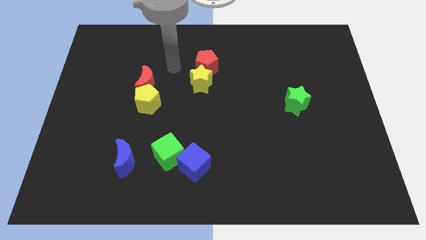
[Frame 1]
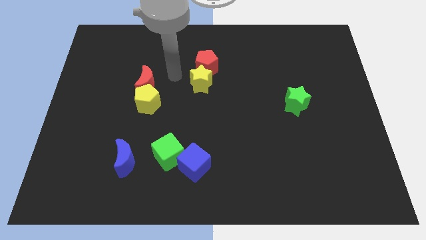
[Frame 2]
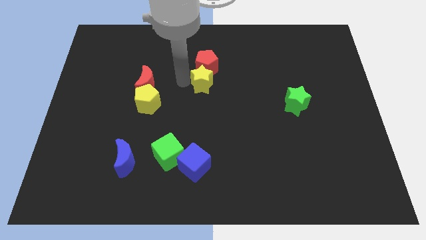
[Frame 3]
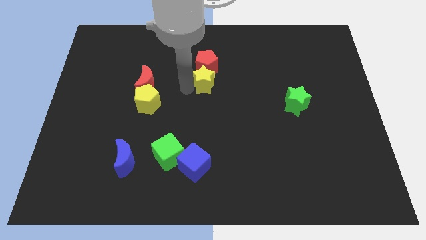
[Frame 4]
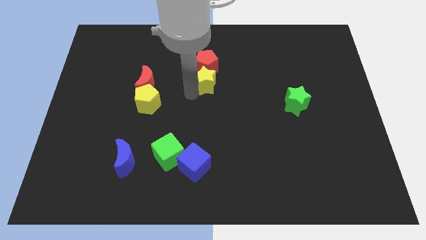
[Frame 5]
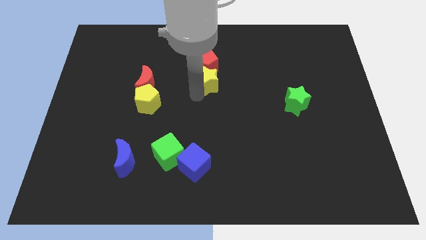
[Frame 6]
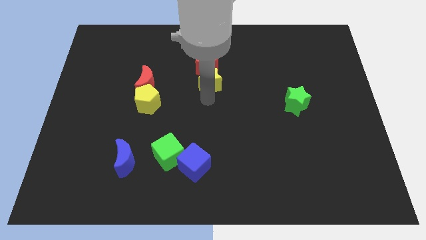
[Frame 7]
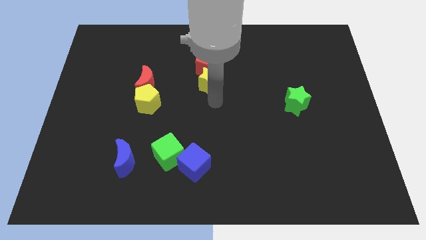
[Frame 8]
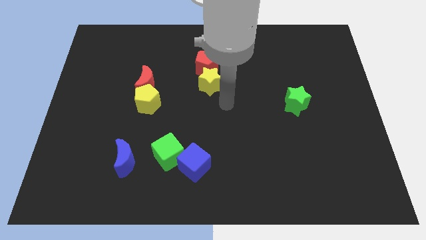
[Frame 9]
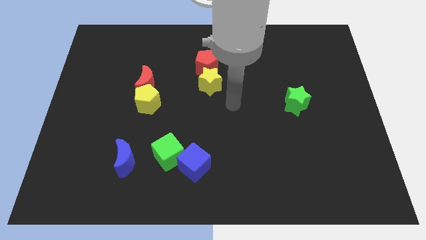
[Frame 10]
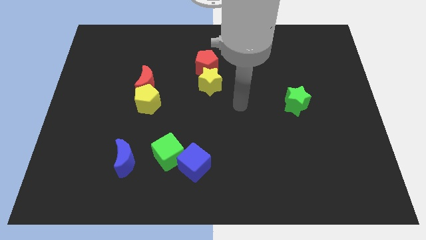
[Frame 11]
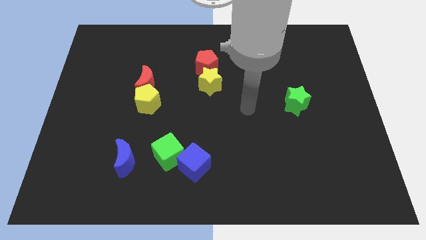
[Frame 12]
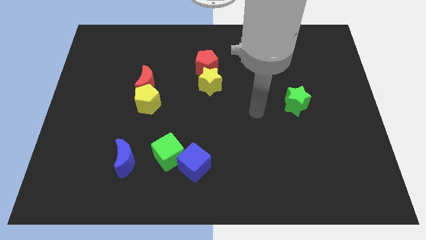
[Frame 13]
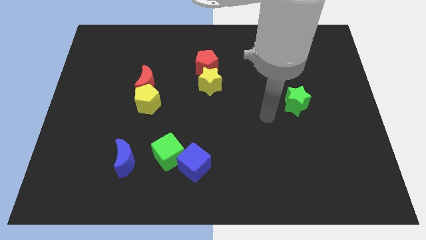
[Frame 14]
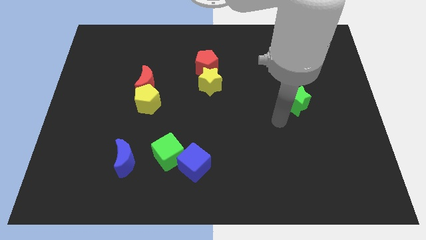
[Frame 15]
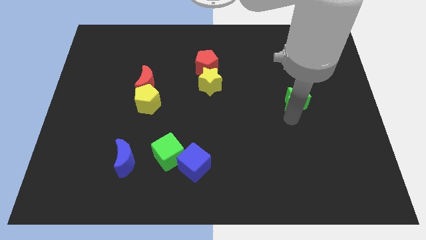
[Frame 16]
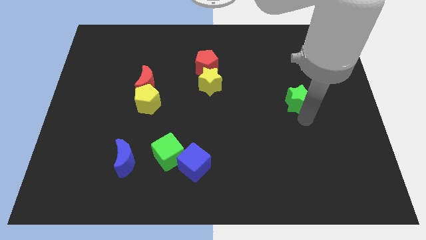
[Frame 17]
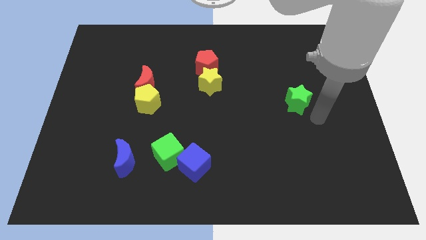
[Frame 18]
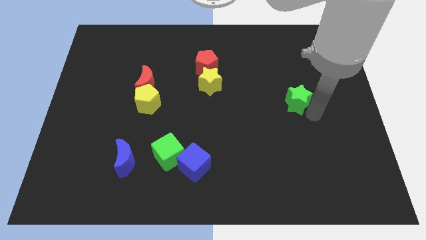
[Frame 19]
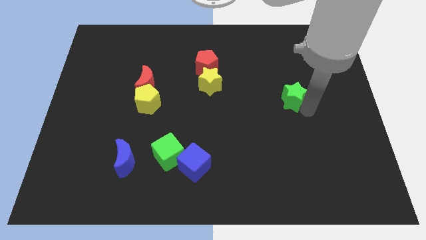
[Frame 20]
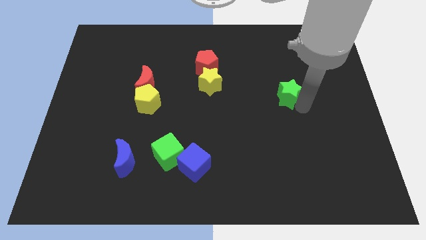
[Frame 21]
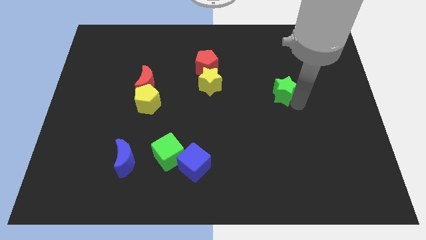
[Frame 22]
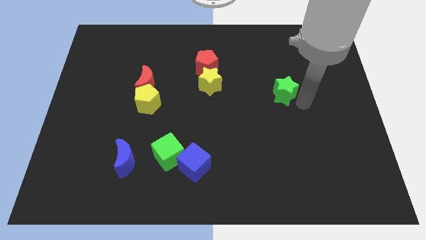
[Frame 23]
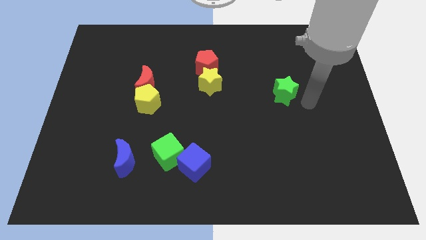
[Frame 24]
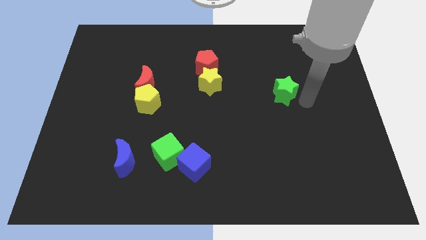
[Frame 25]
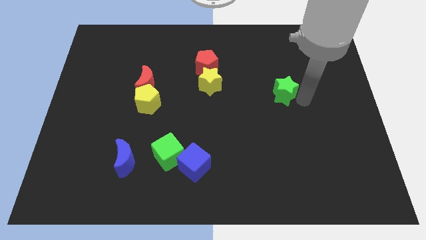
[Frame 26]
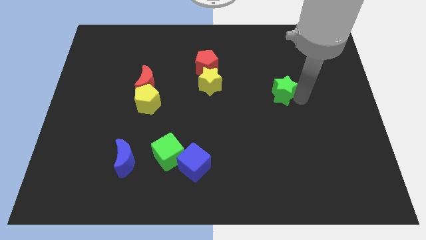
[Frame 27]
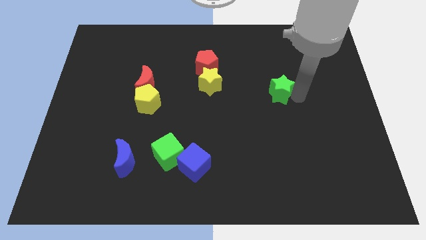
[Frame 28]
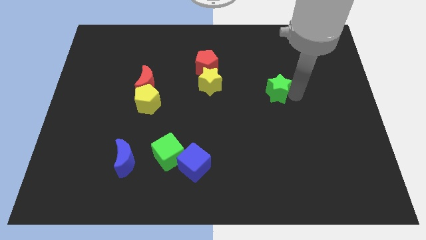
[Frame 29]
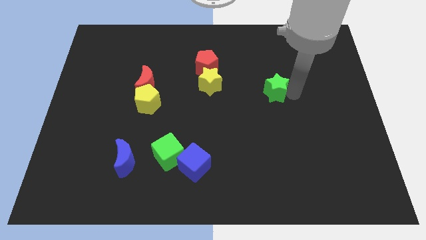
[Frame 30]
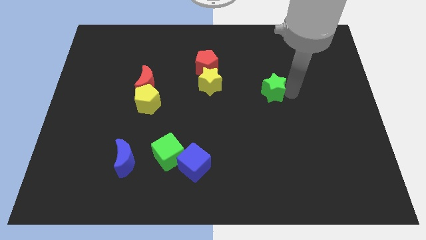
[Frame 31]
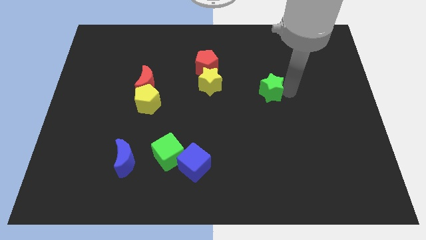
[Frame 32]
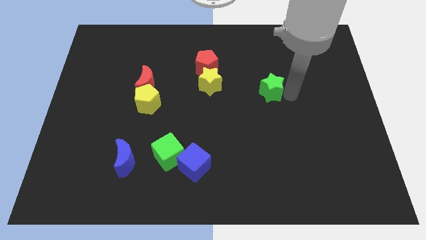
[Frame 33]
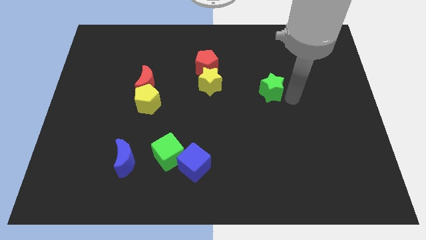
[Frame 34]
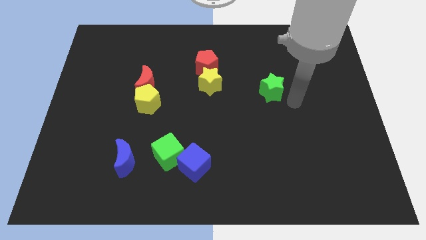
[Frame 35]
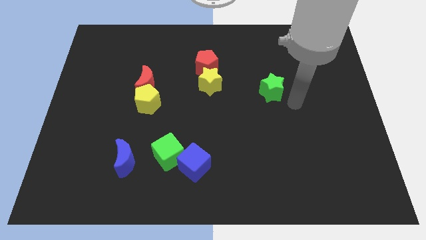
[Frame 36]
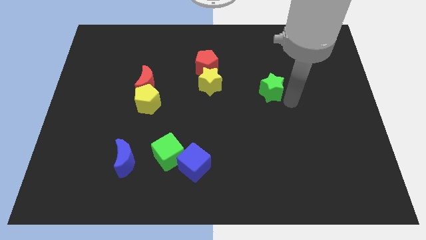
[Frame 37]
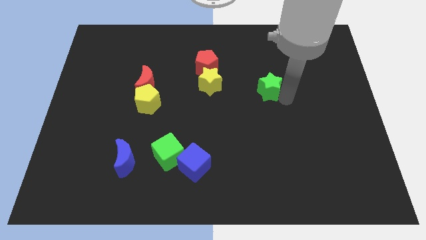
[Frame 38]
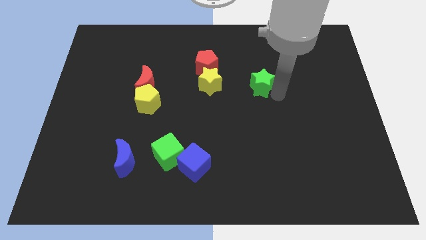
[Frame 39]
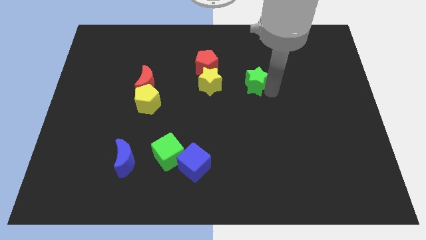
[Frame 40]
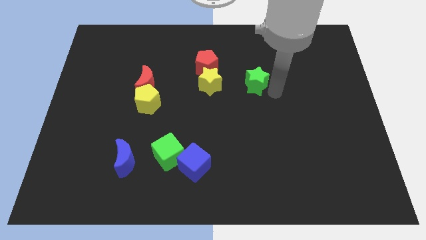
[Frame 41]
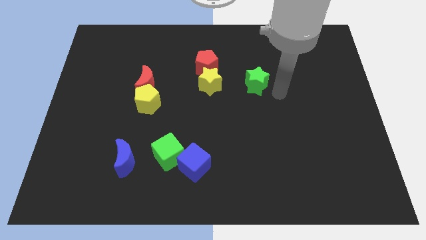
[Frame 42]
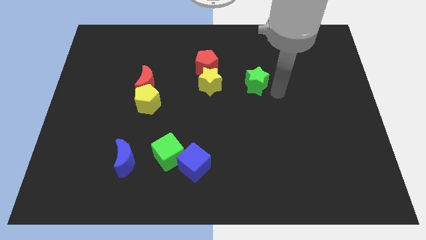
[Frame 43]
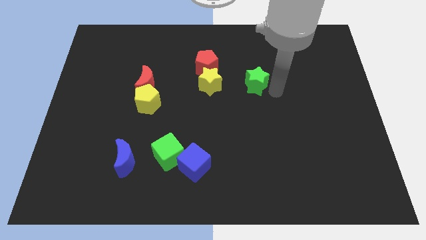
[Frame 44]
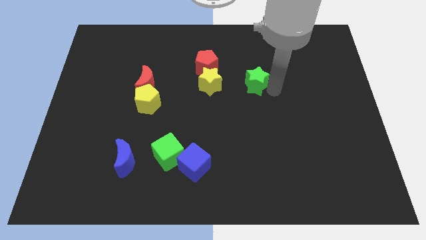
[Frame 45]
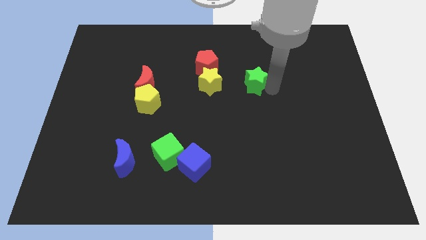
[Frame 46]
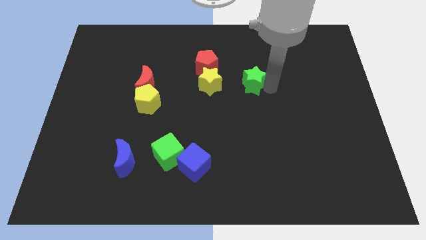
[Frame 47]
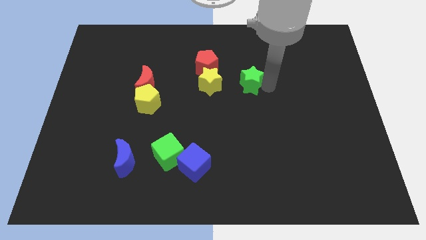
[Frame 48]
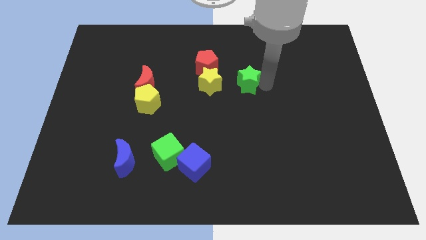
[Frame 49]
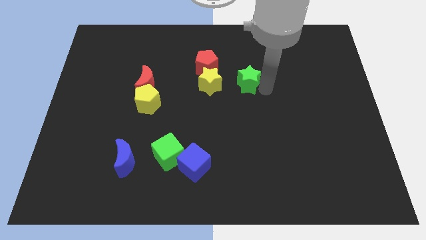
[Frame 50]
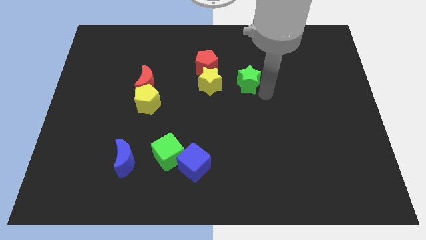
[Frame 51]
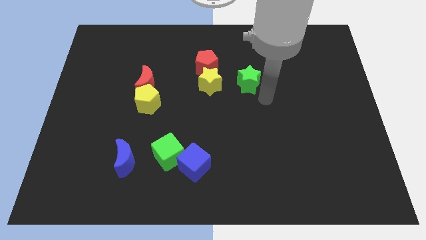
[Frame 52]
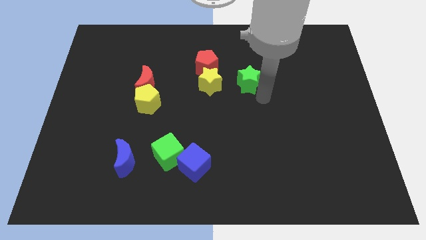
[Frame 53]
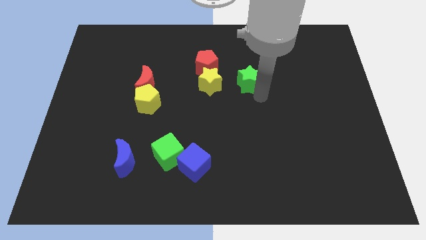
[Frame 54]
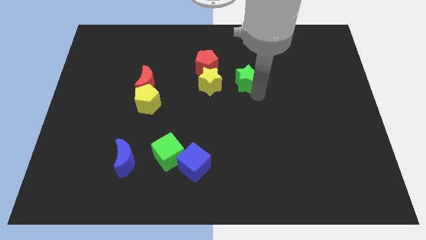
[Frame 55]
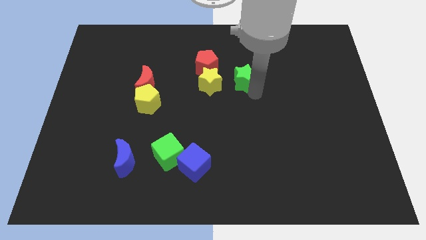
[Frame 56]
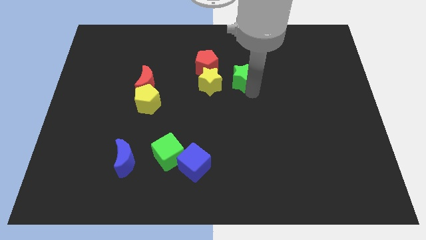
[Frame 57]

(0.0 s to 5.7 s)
slide the green star to the top right of the yellow star

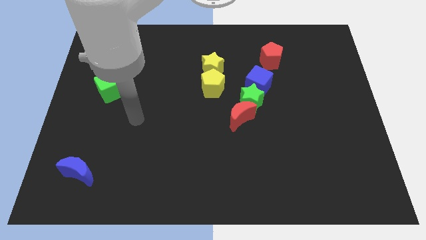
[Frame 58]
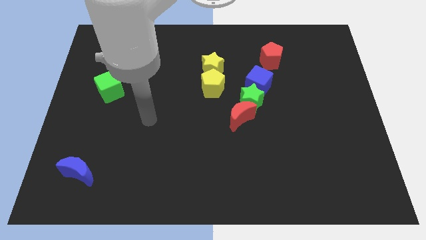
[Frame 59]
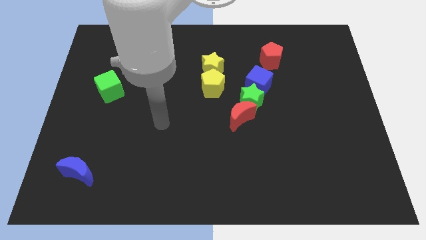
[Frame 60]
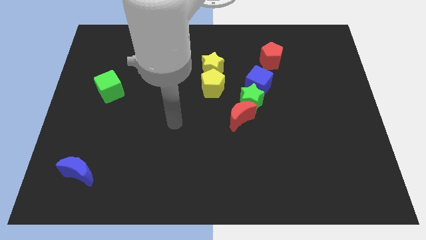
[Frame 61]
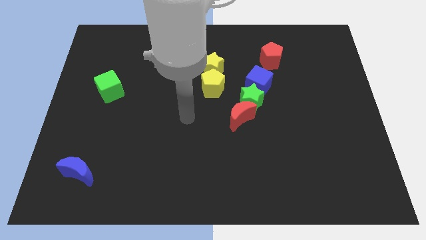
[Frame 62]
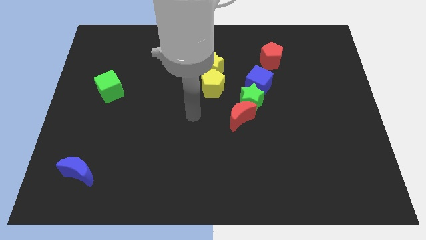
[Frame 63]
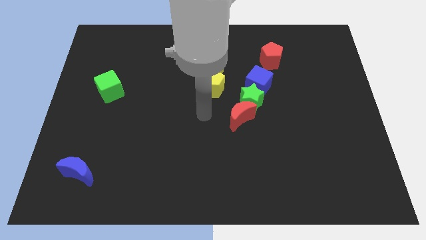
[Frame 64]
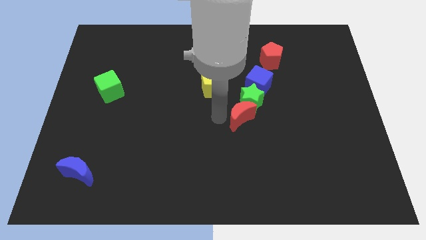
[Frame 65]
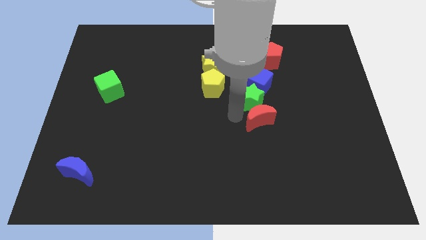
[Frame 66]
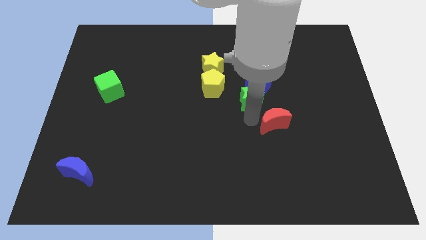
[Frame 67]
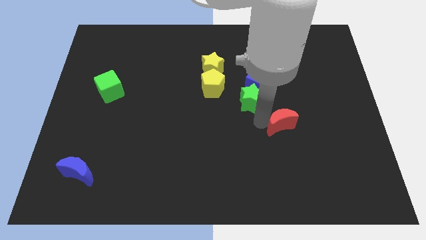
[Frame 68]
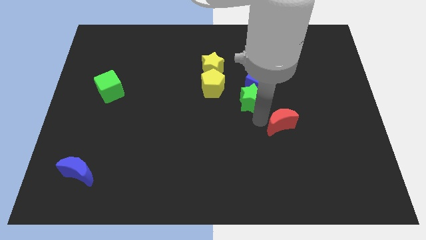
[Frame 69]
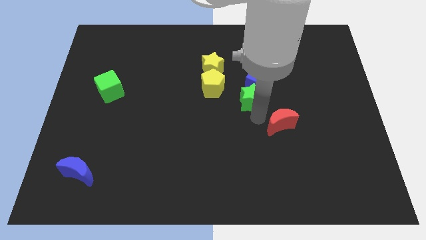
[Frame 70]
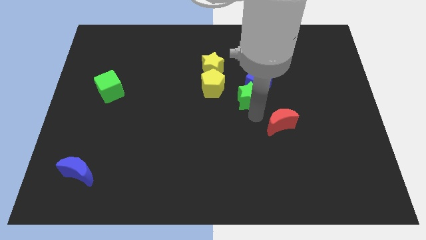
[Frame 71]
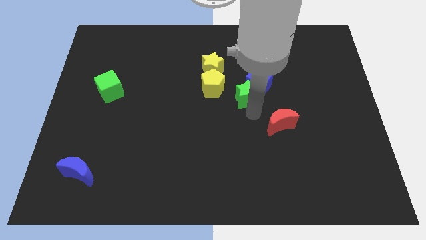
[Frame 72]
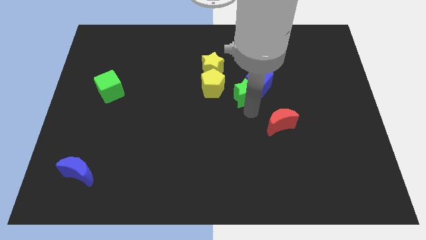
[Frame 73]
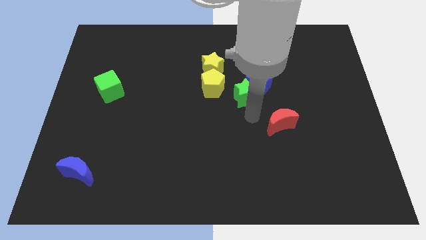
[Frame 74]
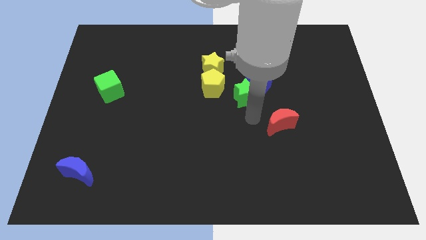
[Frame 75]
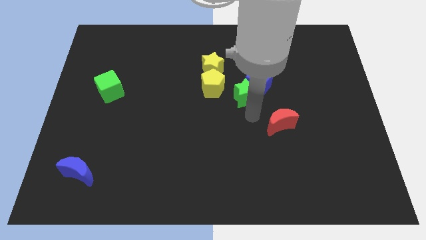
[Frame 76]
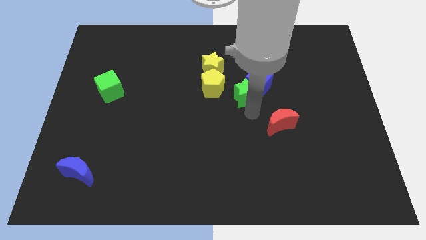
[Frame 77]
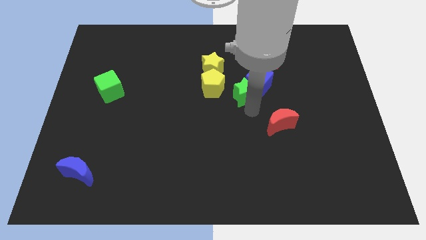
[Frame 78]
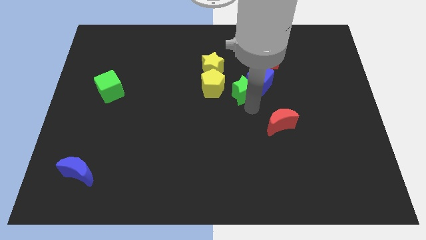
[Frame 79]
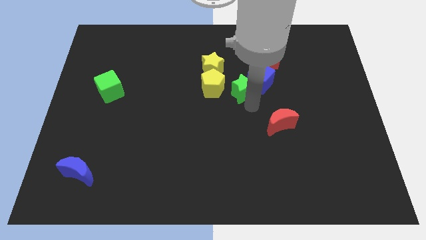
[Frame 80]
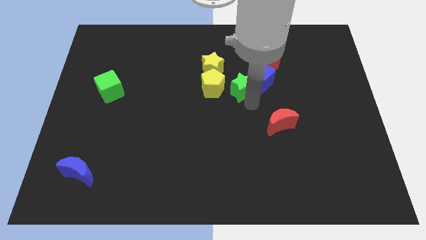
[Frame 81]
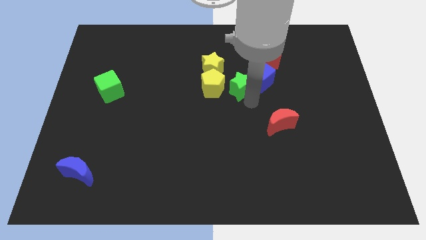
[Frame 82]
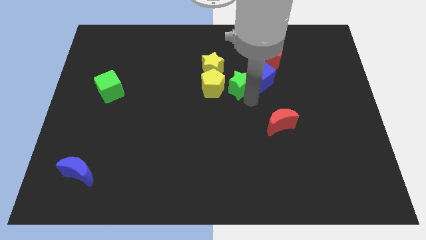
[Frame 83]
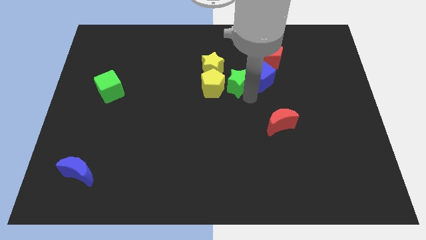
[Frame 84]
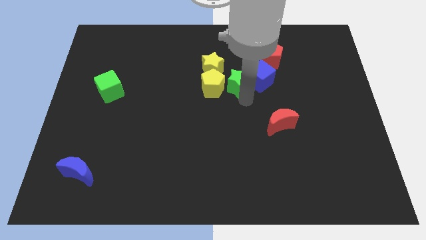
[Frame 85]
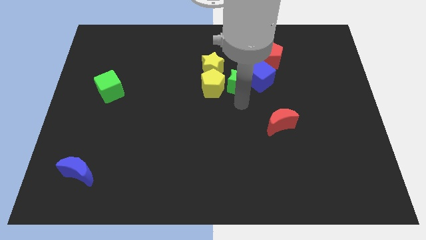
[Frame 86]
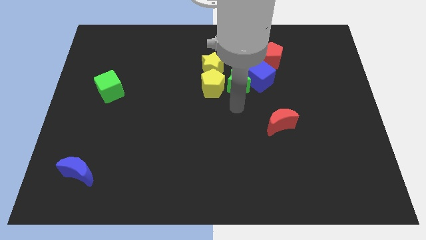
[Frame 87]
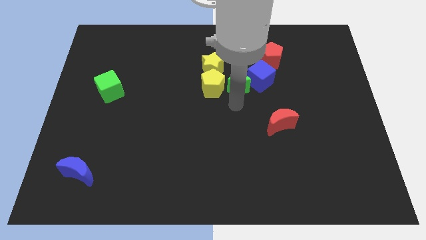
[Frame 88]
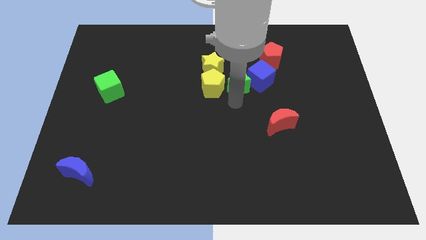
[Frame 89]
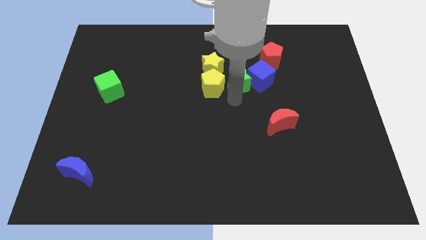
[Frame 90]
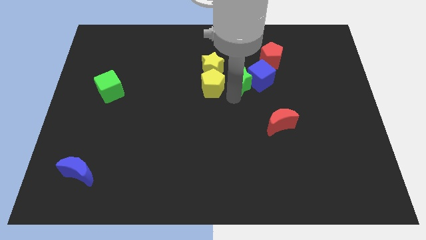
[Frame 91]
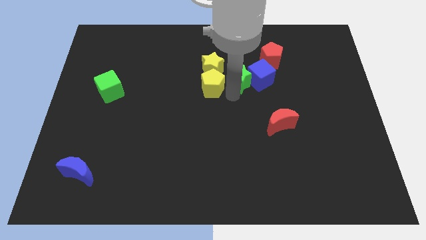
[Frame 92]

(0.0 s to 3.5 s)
move the green star to the top left of the blue cube
